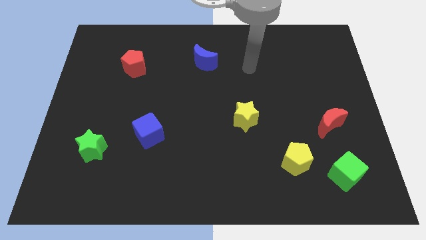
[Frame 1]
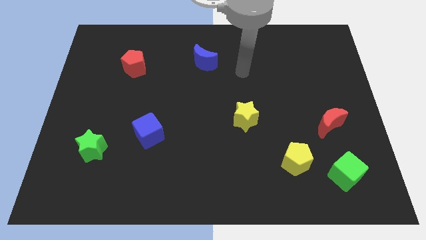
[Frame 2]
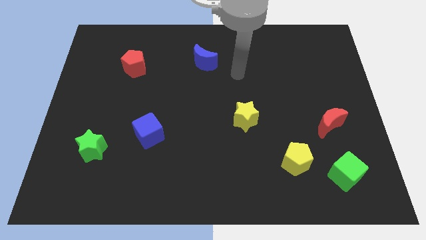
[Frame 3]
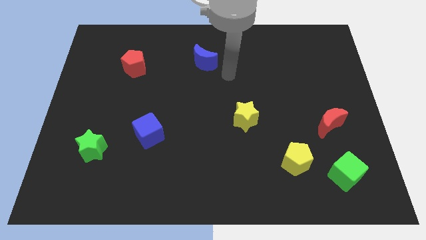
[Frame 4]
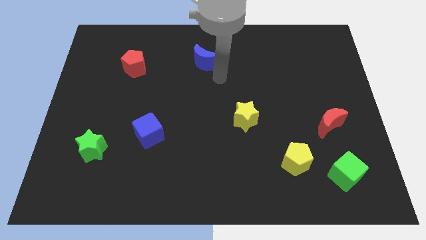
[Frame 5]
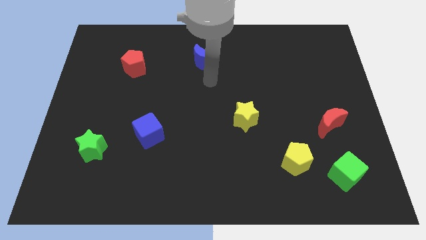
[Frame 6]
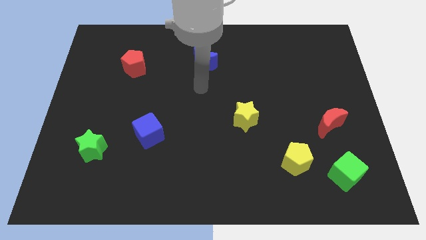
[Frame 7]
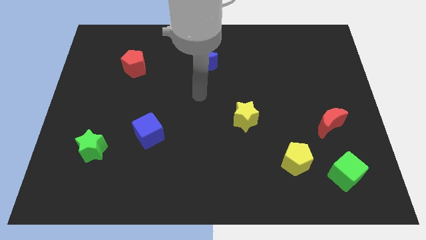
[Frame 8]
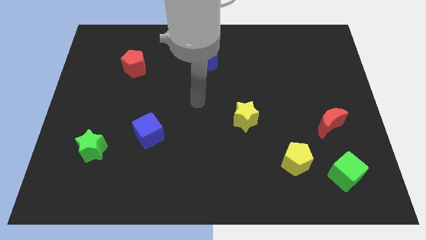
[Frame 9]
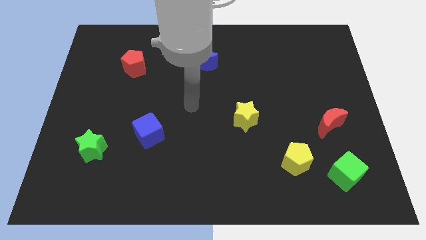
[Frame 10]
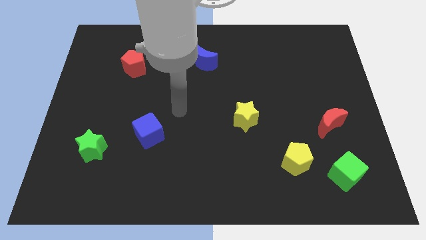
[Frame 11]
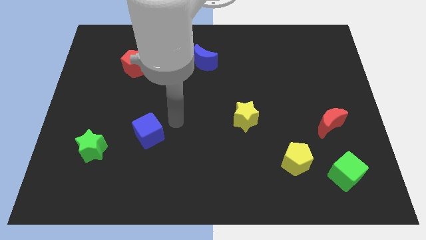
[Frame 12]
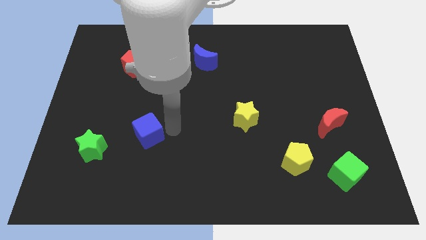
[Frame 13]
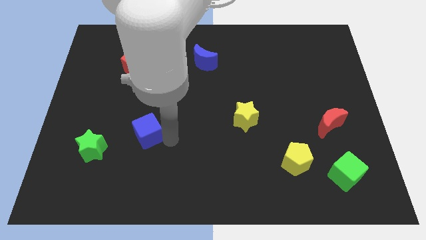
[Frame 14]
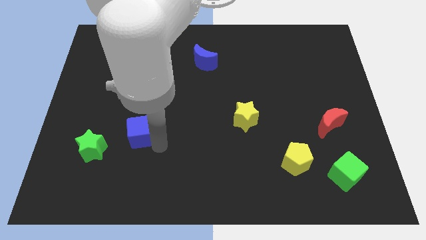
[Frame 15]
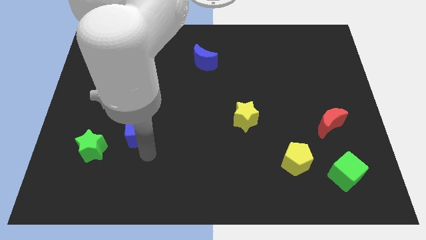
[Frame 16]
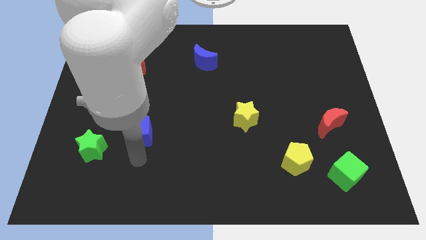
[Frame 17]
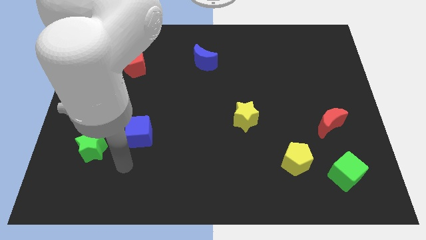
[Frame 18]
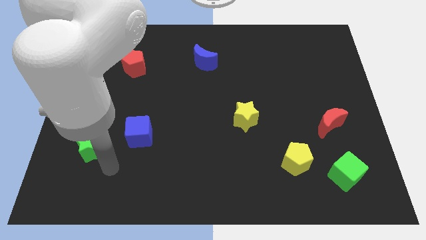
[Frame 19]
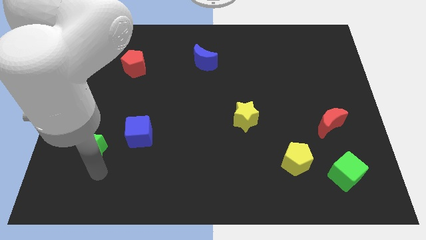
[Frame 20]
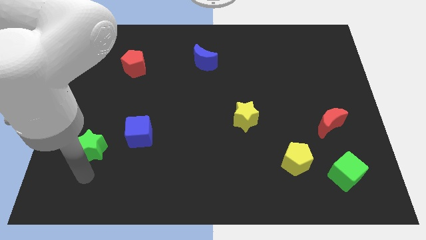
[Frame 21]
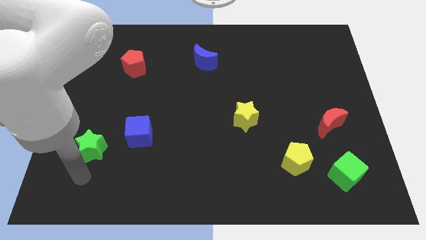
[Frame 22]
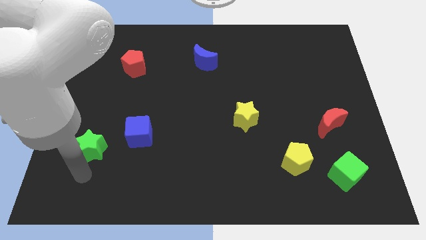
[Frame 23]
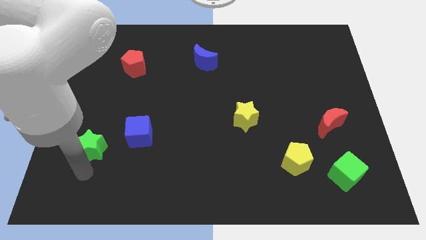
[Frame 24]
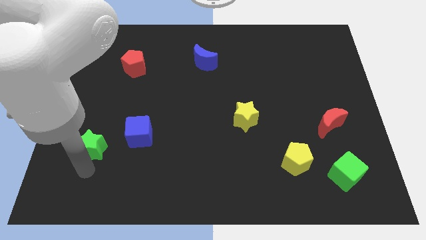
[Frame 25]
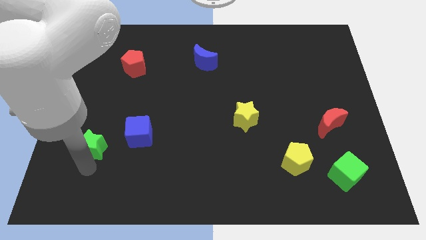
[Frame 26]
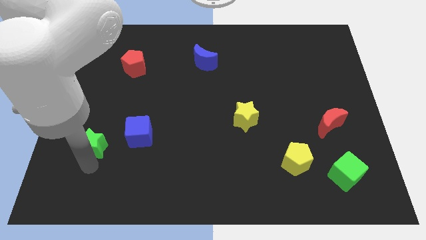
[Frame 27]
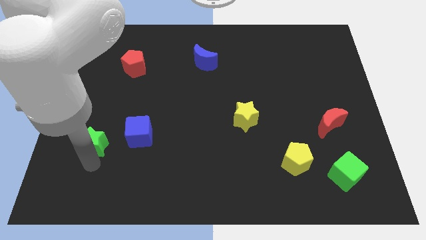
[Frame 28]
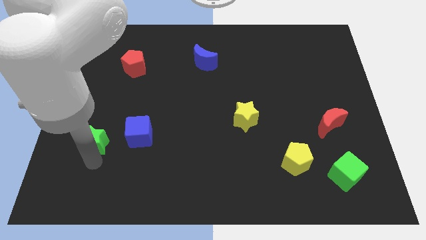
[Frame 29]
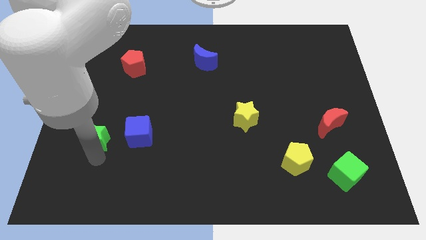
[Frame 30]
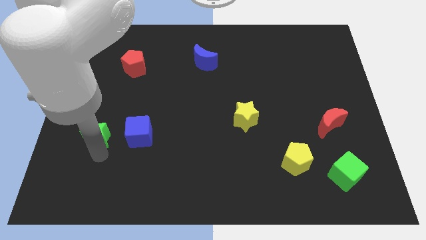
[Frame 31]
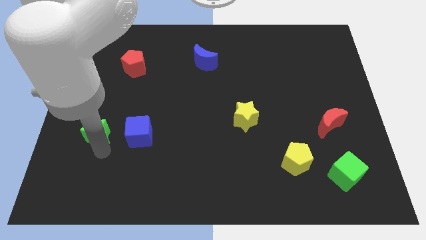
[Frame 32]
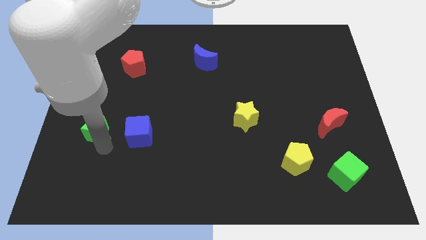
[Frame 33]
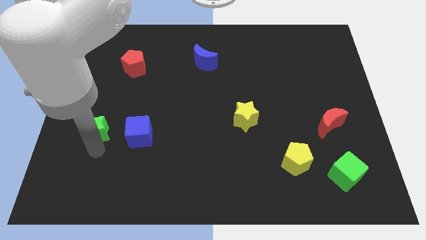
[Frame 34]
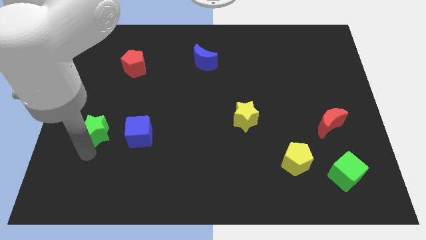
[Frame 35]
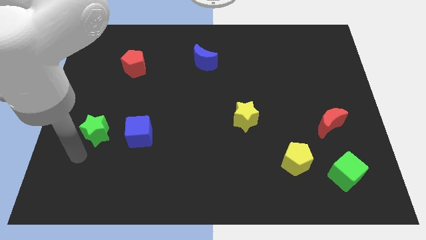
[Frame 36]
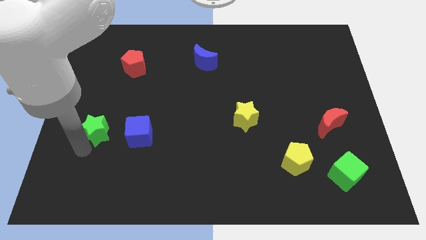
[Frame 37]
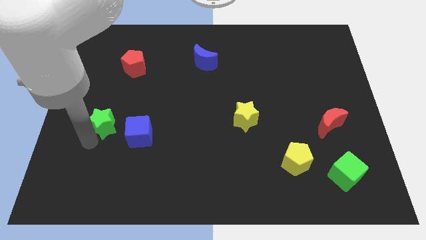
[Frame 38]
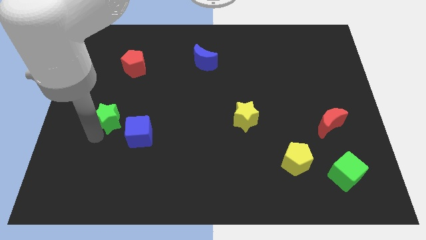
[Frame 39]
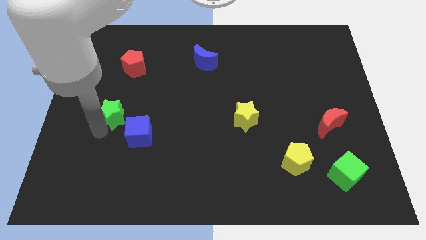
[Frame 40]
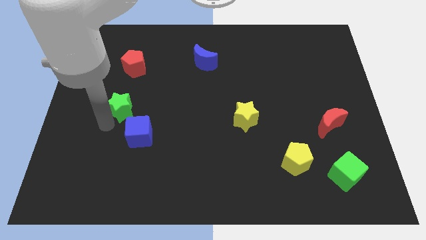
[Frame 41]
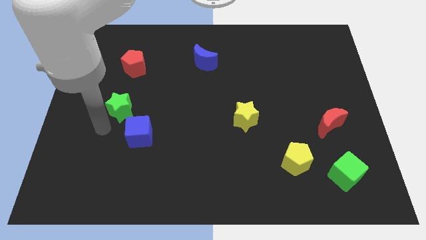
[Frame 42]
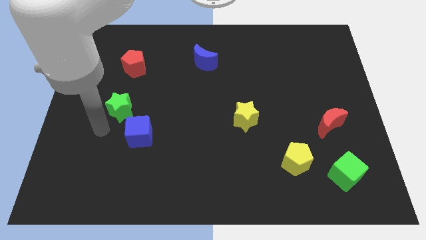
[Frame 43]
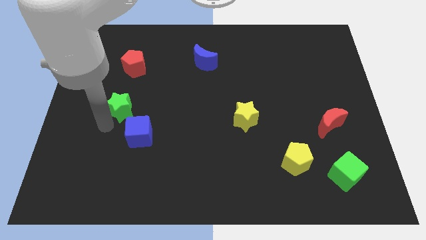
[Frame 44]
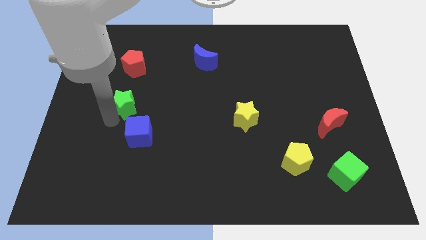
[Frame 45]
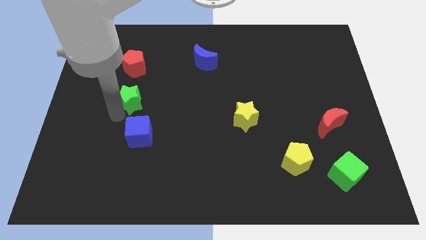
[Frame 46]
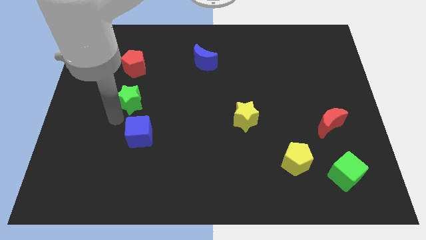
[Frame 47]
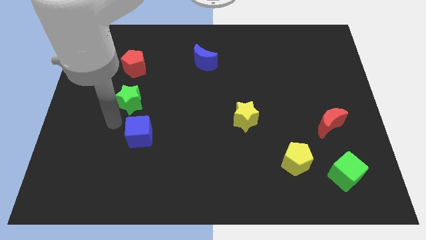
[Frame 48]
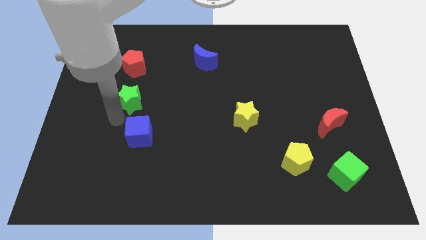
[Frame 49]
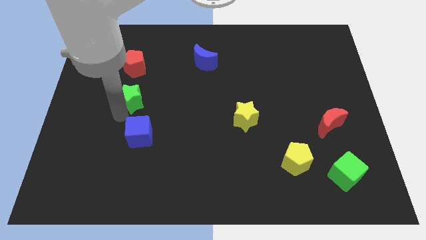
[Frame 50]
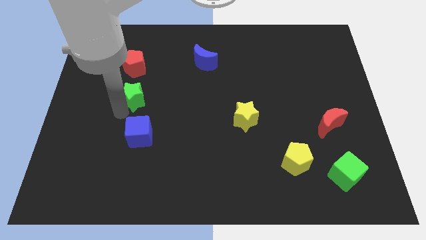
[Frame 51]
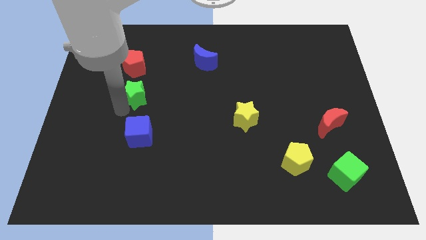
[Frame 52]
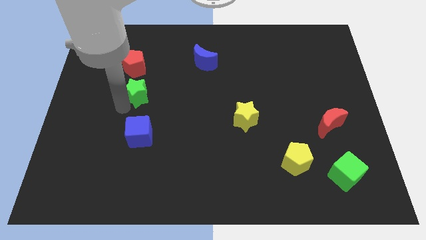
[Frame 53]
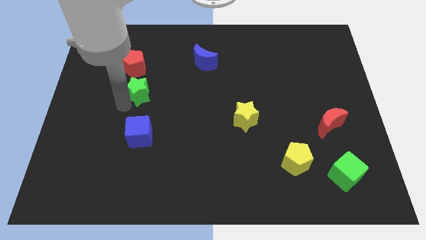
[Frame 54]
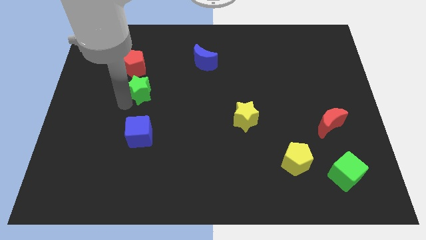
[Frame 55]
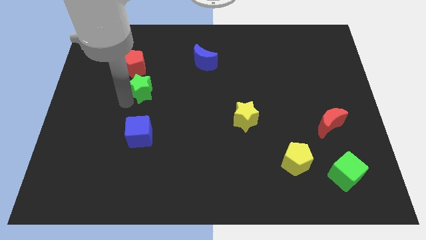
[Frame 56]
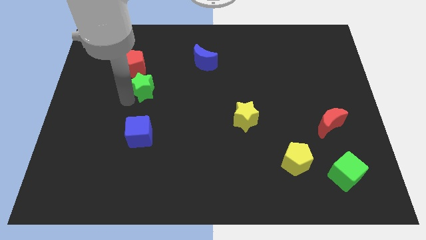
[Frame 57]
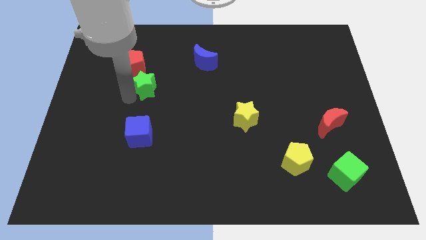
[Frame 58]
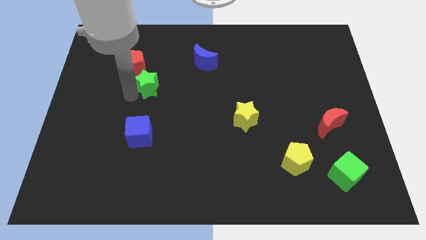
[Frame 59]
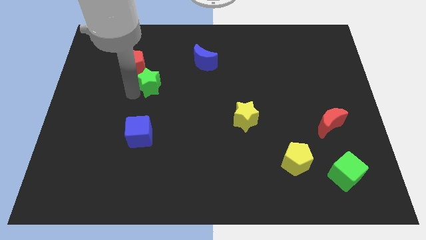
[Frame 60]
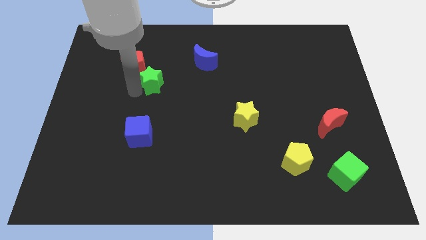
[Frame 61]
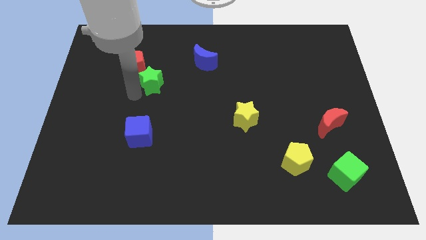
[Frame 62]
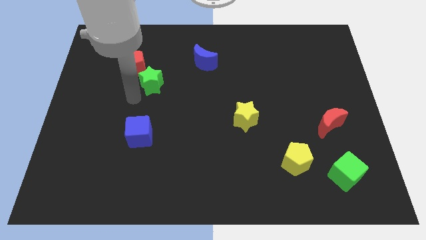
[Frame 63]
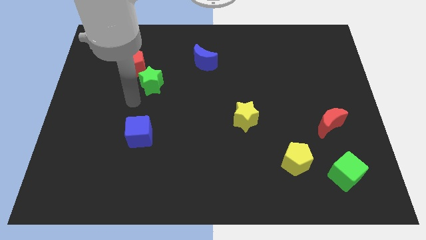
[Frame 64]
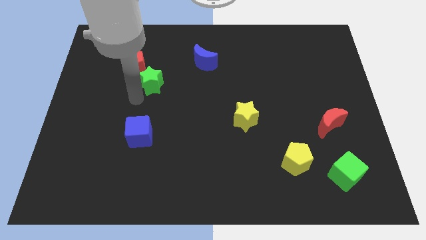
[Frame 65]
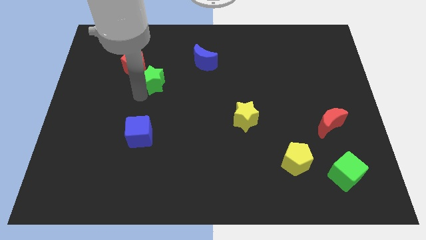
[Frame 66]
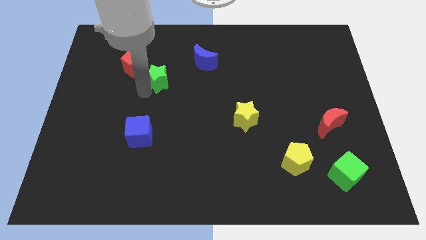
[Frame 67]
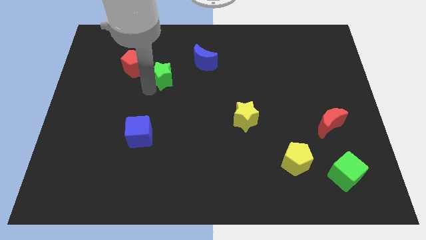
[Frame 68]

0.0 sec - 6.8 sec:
slide the green star to the right side of the red pentagon
